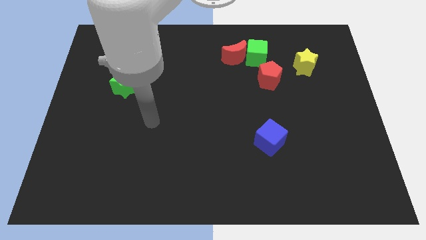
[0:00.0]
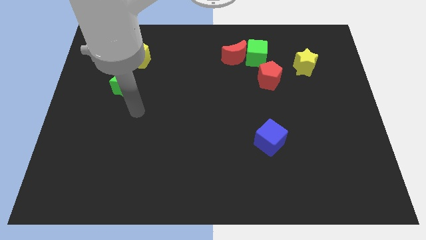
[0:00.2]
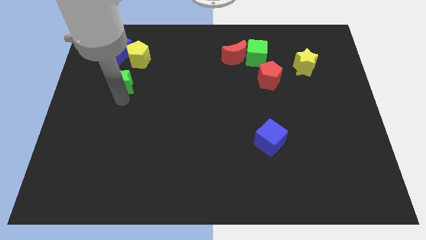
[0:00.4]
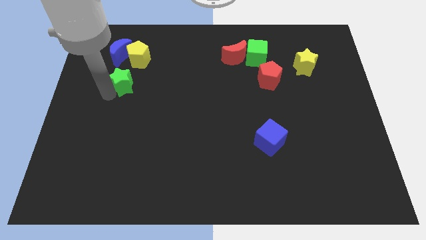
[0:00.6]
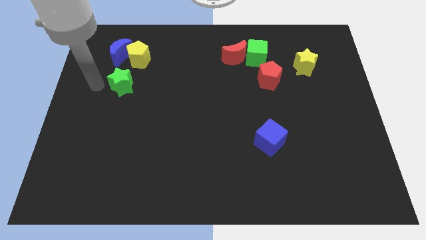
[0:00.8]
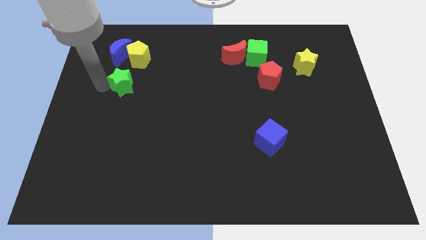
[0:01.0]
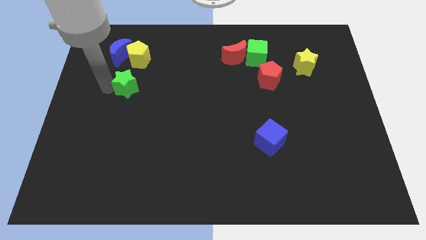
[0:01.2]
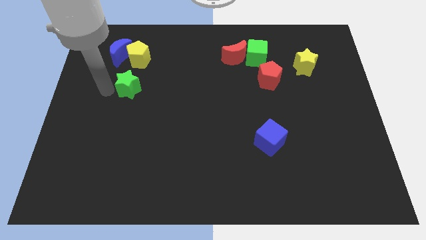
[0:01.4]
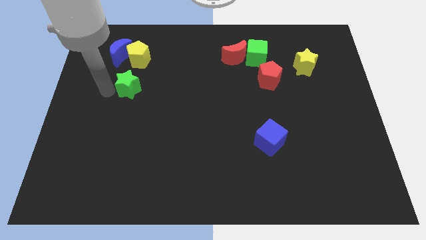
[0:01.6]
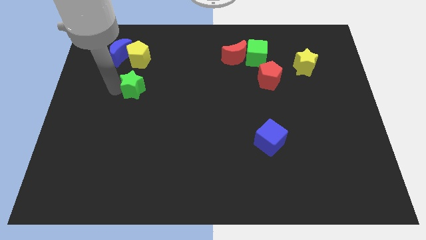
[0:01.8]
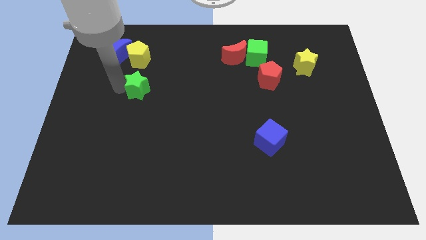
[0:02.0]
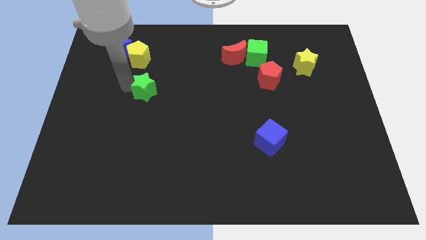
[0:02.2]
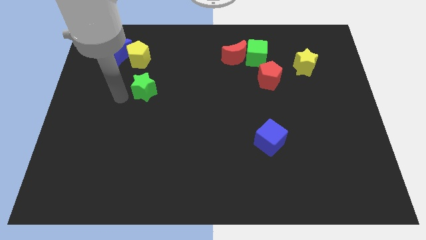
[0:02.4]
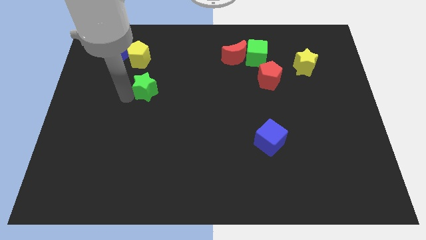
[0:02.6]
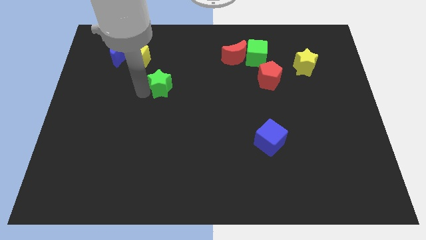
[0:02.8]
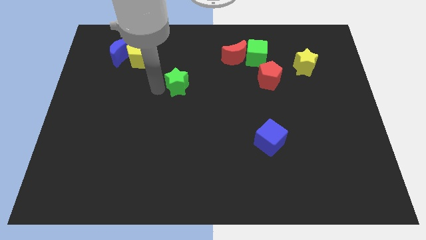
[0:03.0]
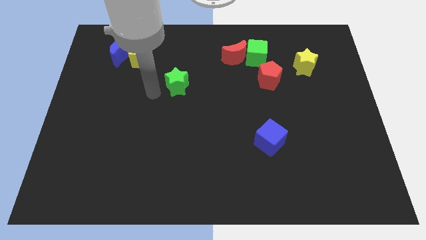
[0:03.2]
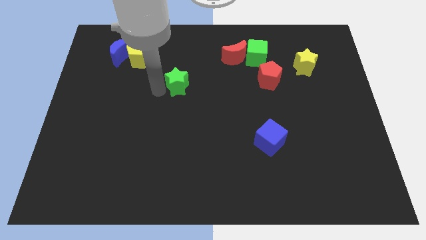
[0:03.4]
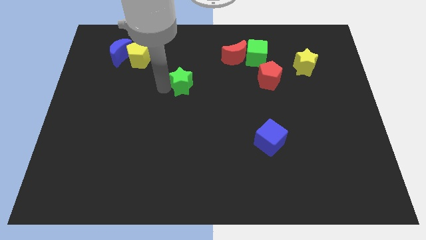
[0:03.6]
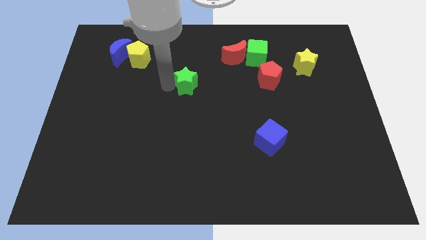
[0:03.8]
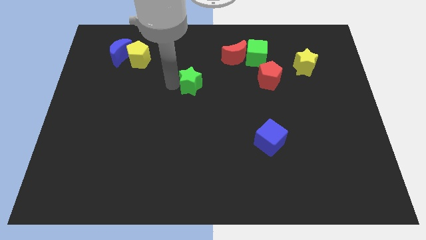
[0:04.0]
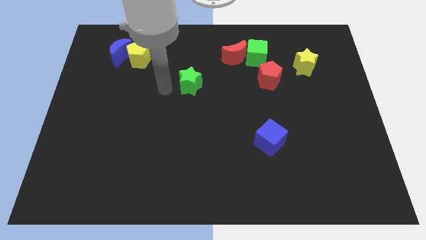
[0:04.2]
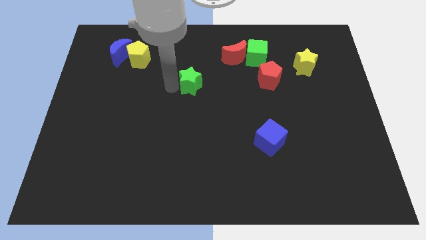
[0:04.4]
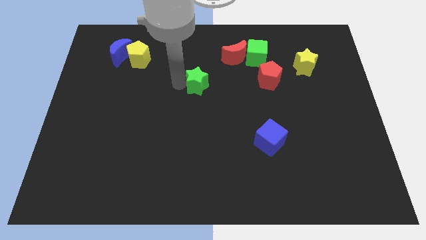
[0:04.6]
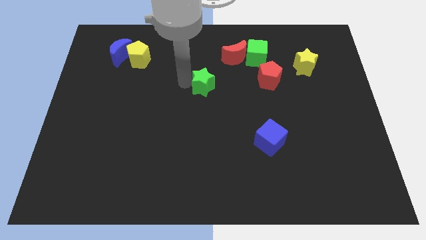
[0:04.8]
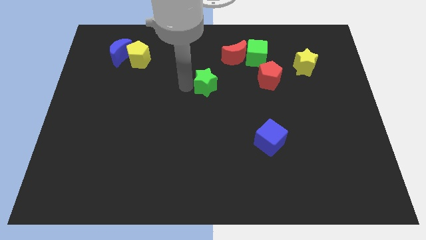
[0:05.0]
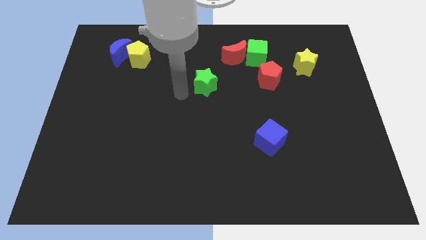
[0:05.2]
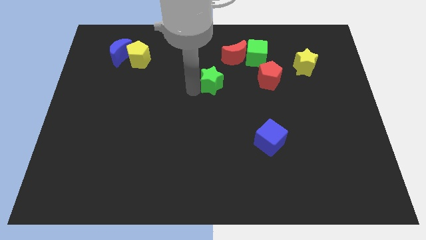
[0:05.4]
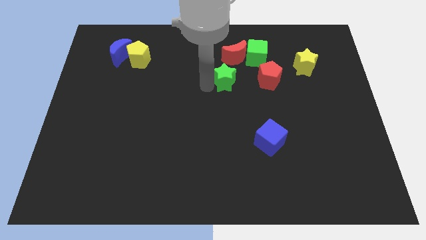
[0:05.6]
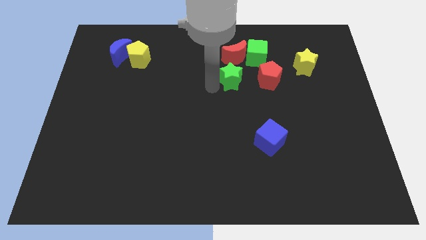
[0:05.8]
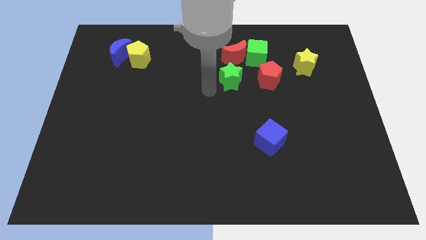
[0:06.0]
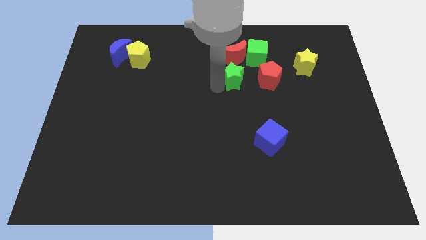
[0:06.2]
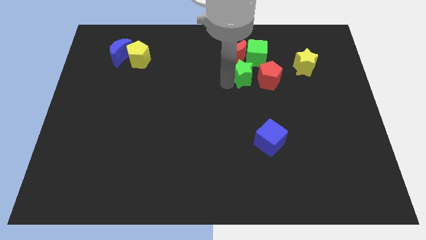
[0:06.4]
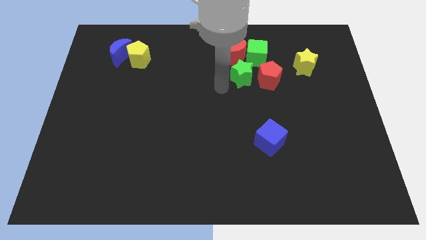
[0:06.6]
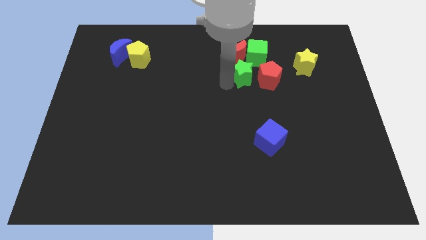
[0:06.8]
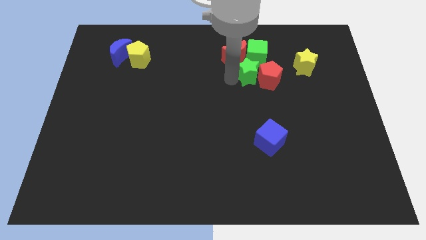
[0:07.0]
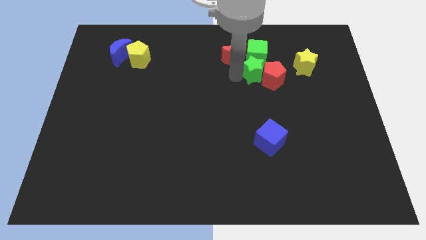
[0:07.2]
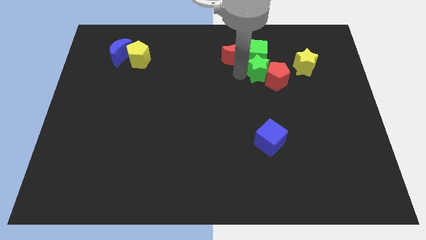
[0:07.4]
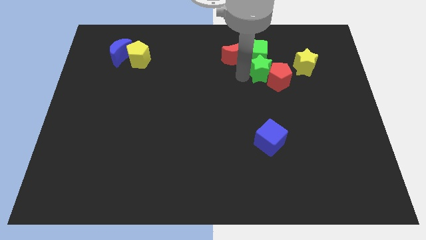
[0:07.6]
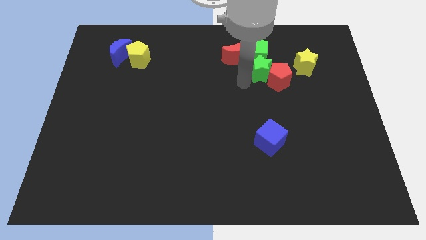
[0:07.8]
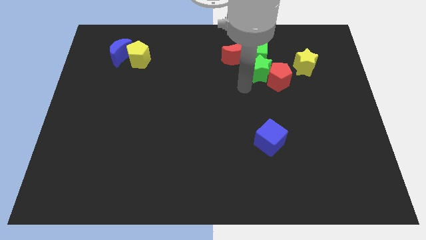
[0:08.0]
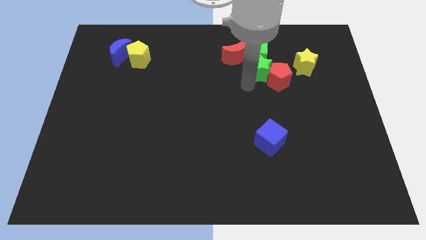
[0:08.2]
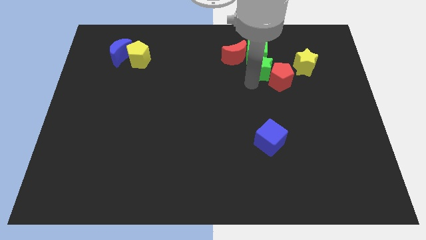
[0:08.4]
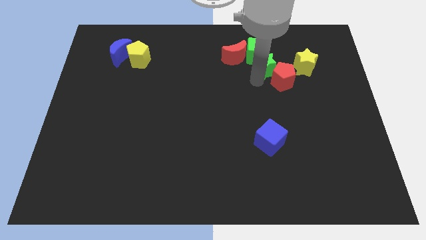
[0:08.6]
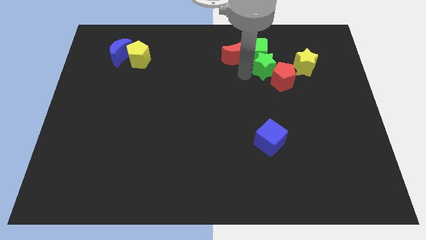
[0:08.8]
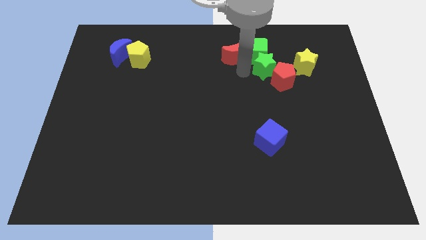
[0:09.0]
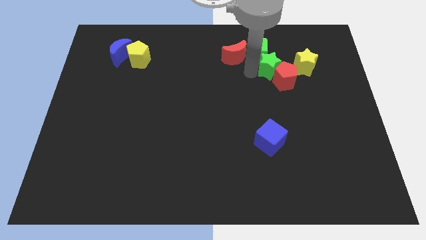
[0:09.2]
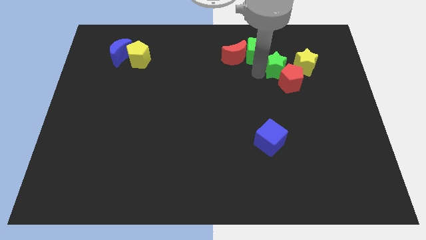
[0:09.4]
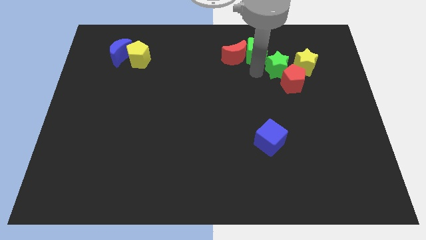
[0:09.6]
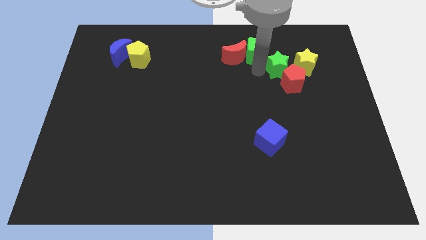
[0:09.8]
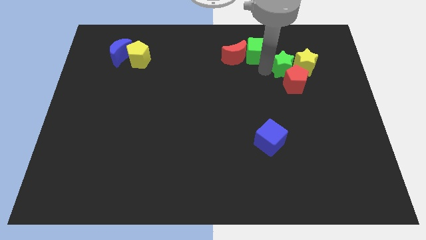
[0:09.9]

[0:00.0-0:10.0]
move the green star towards the yellow star

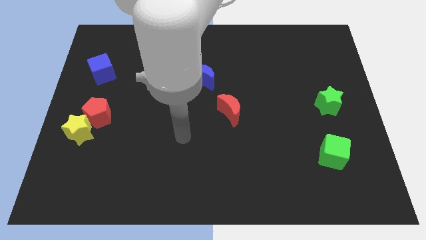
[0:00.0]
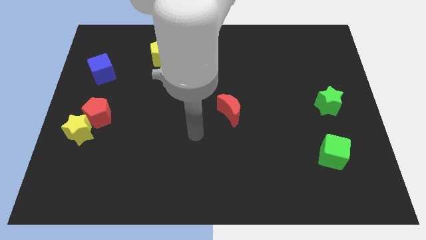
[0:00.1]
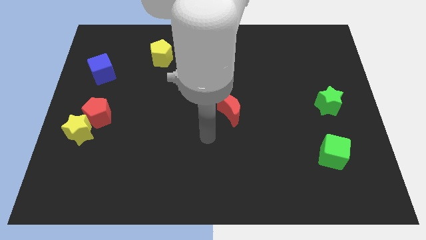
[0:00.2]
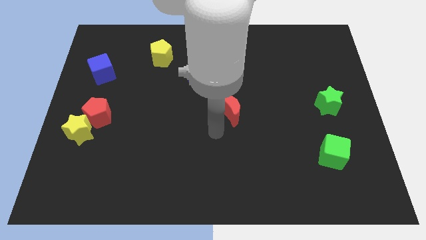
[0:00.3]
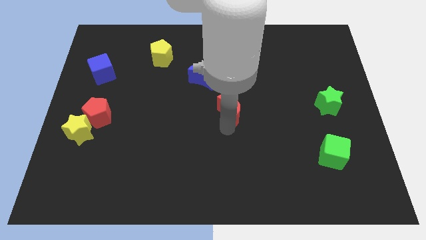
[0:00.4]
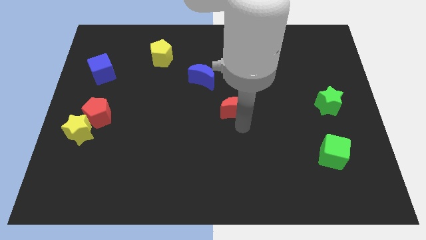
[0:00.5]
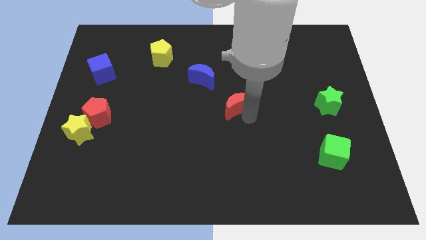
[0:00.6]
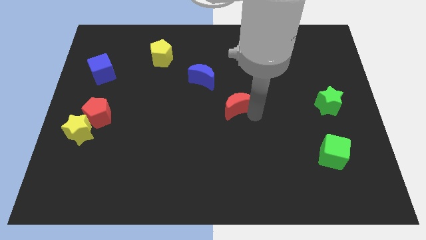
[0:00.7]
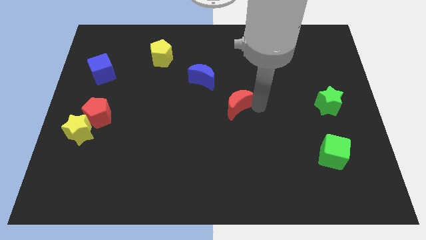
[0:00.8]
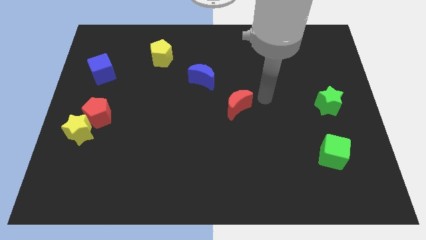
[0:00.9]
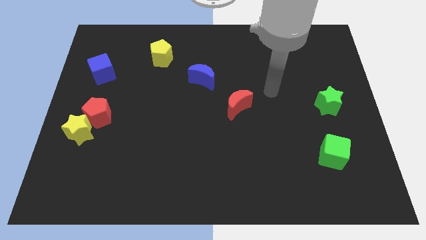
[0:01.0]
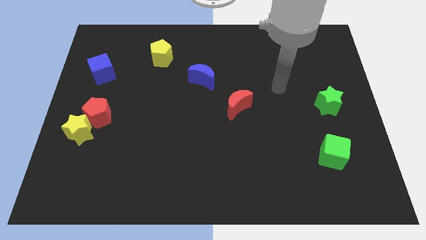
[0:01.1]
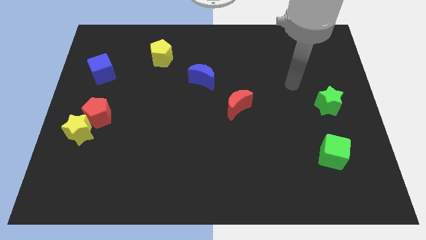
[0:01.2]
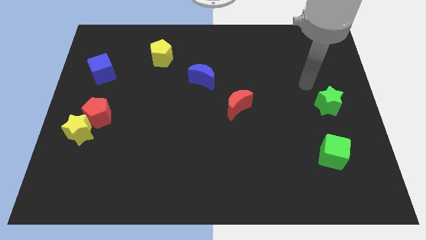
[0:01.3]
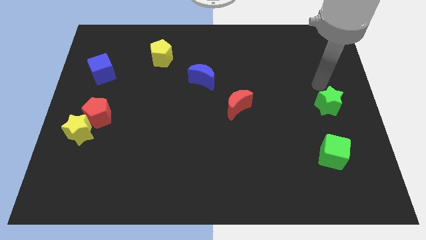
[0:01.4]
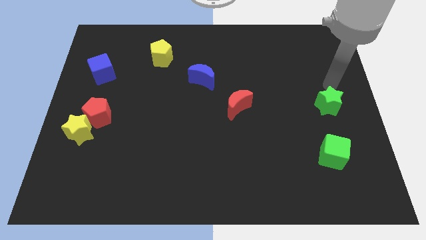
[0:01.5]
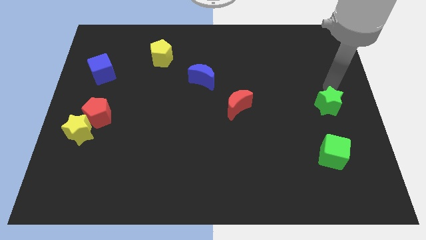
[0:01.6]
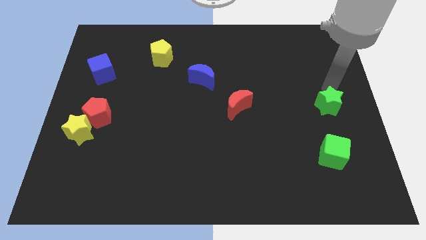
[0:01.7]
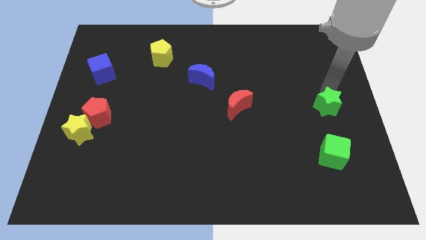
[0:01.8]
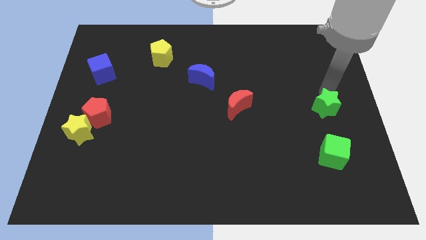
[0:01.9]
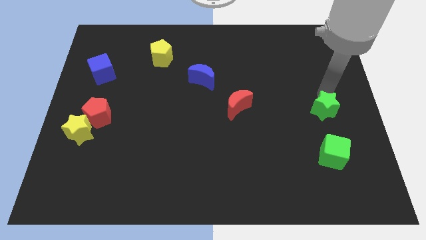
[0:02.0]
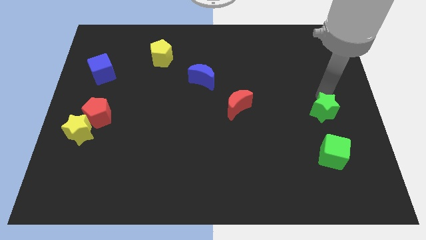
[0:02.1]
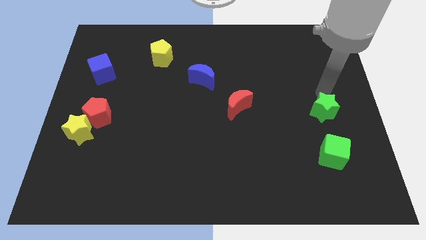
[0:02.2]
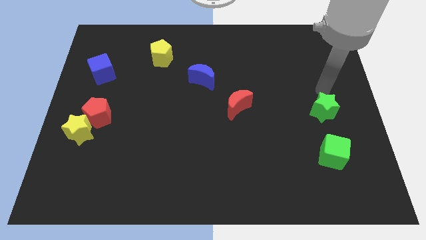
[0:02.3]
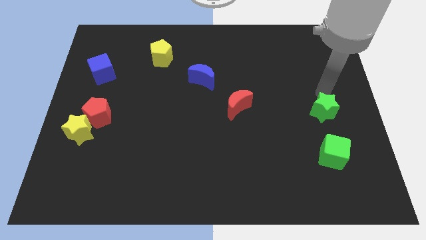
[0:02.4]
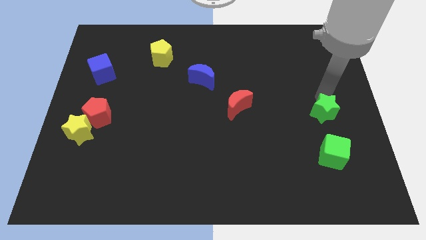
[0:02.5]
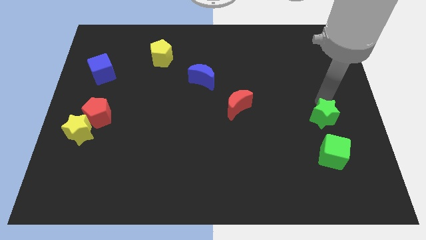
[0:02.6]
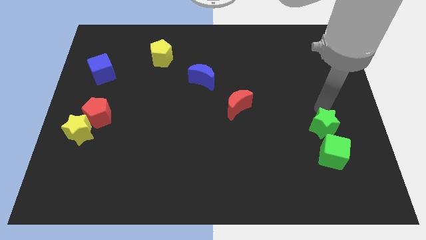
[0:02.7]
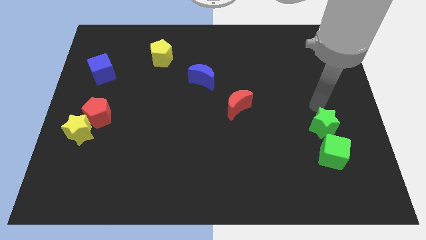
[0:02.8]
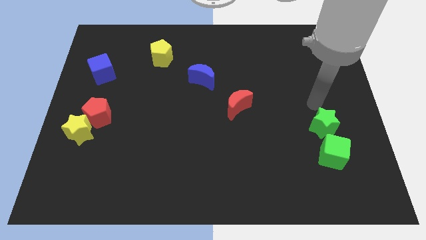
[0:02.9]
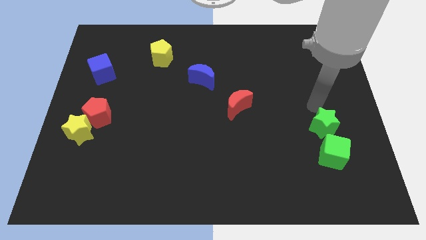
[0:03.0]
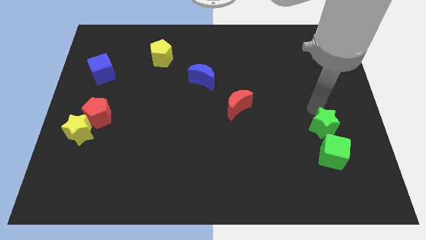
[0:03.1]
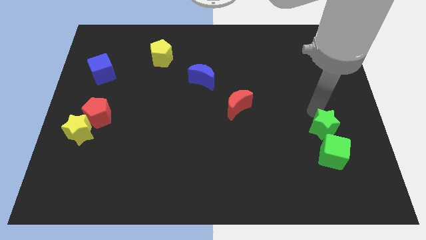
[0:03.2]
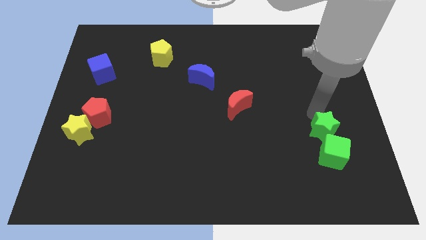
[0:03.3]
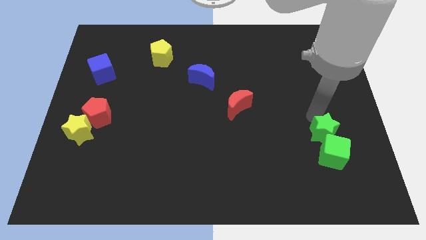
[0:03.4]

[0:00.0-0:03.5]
move the green star to the green cube
